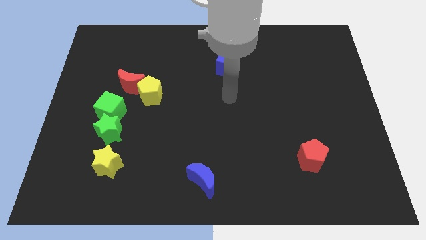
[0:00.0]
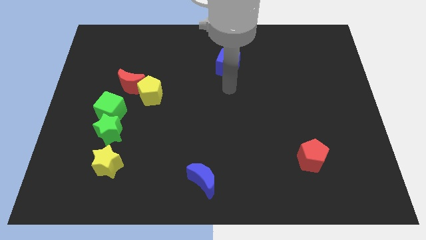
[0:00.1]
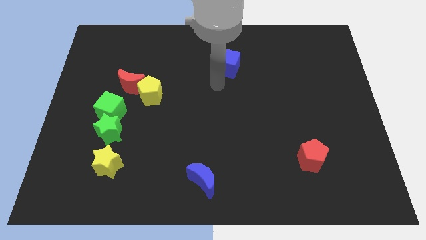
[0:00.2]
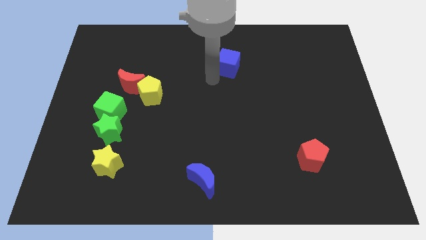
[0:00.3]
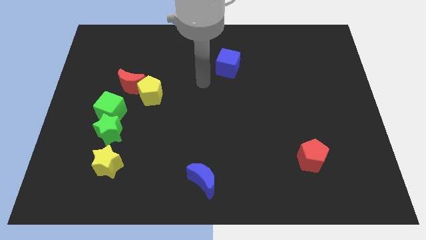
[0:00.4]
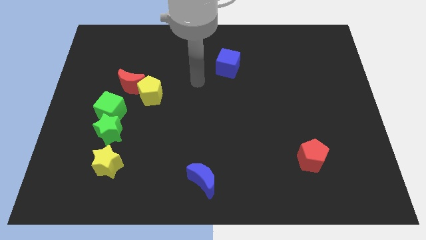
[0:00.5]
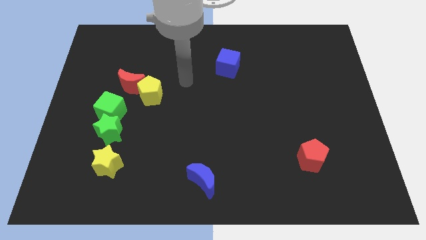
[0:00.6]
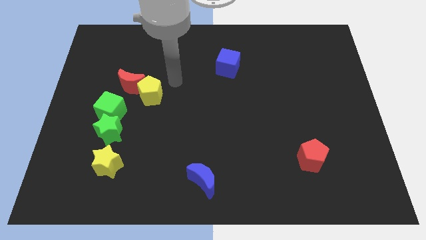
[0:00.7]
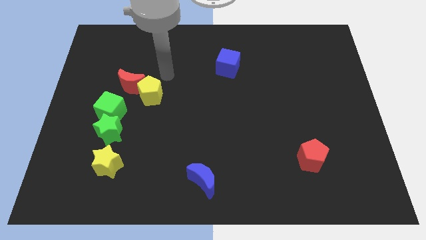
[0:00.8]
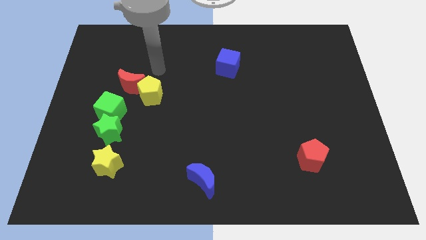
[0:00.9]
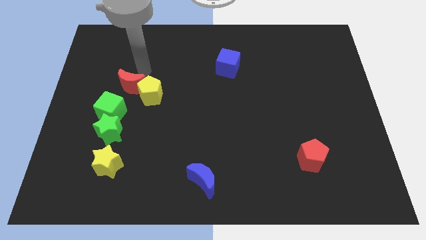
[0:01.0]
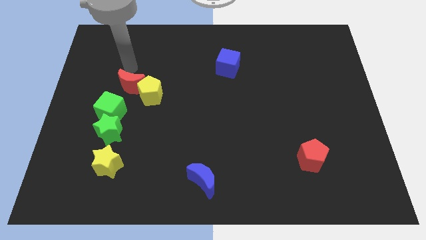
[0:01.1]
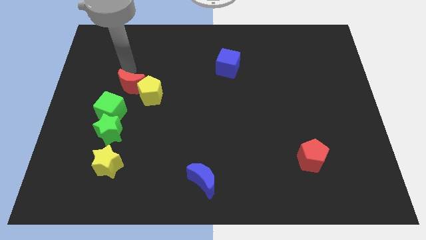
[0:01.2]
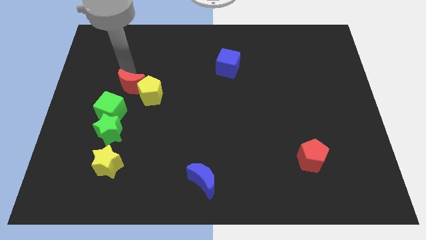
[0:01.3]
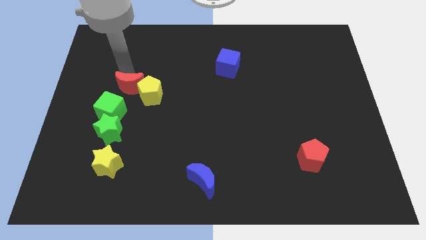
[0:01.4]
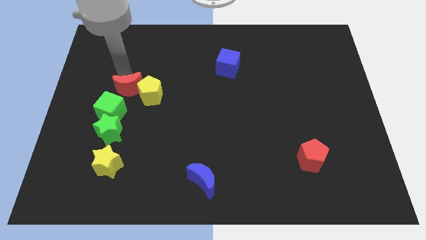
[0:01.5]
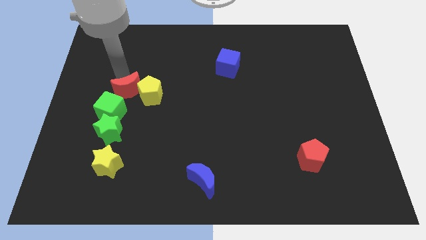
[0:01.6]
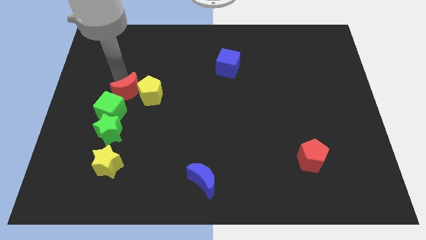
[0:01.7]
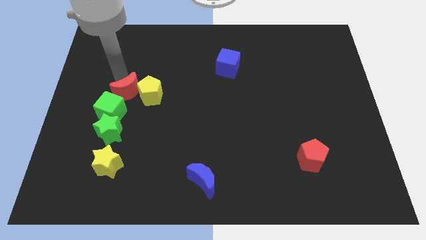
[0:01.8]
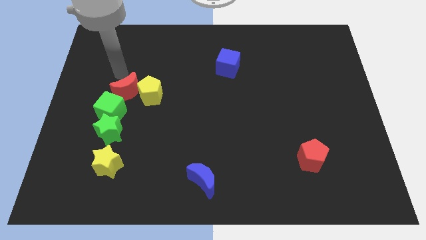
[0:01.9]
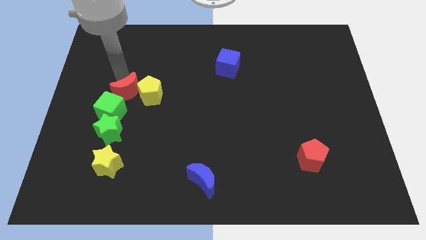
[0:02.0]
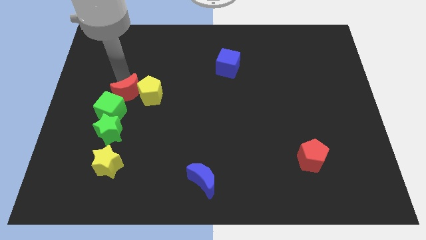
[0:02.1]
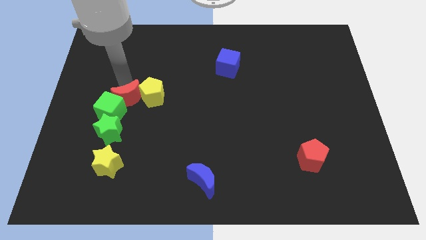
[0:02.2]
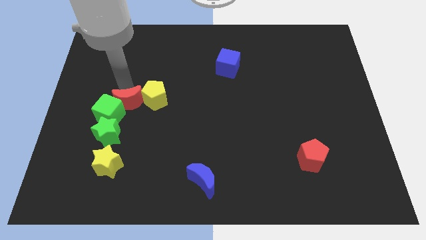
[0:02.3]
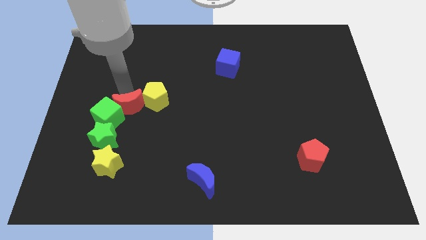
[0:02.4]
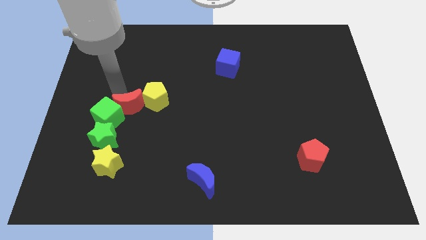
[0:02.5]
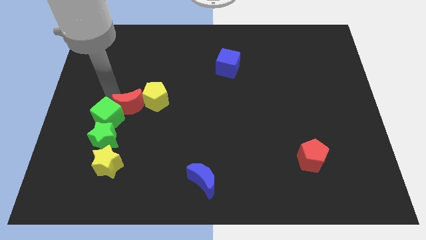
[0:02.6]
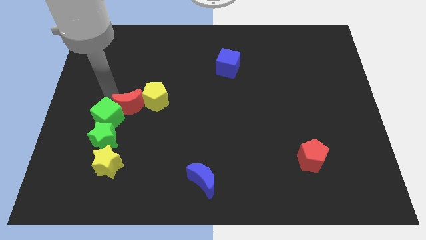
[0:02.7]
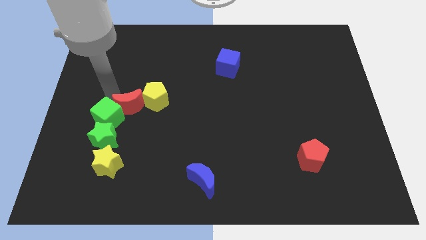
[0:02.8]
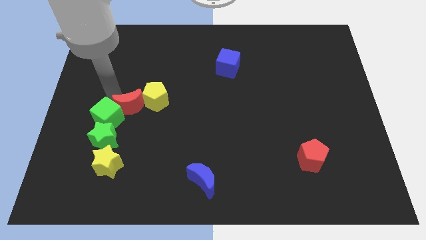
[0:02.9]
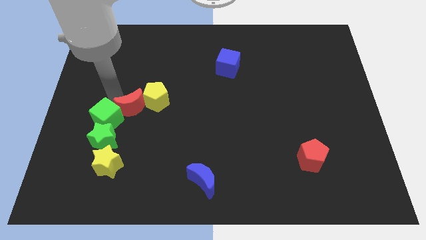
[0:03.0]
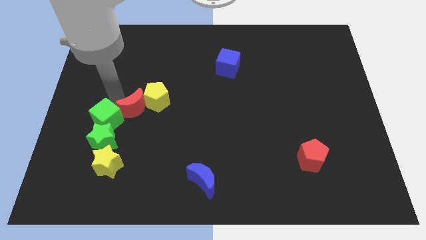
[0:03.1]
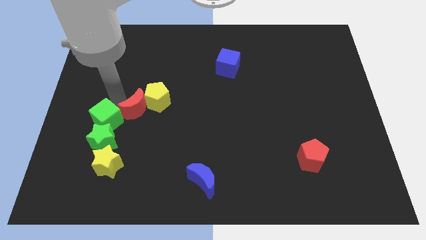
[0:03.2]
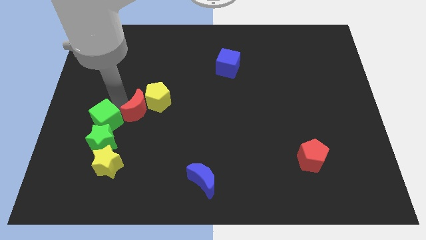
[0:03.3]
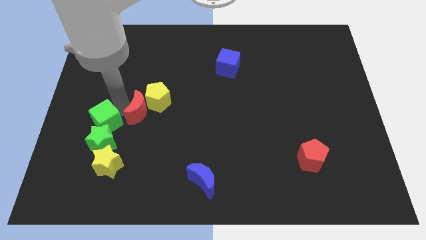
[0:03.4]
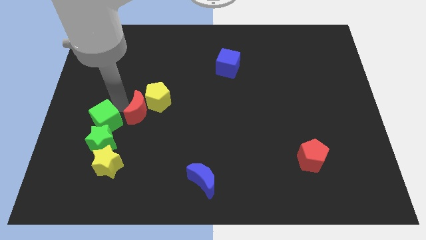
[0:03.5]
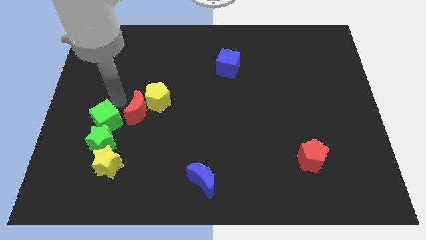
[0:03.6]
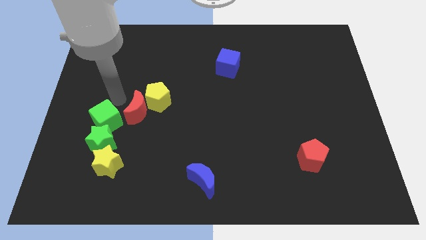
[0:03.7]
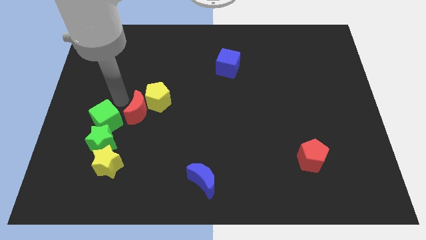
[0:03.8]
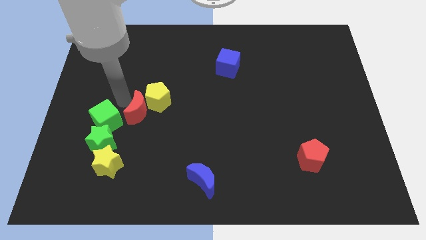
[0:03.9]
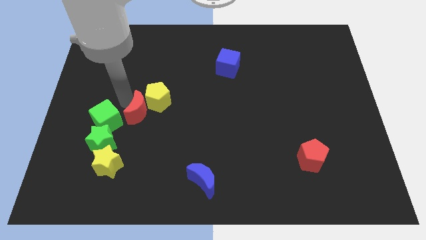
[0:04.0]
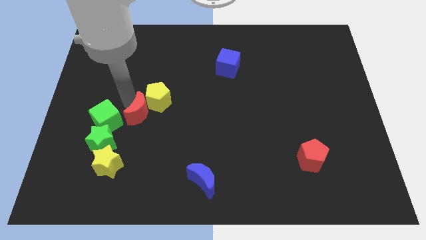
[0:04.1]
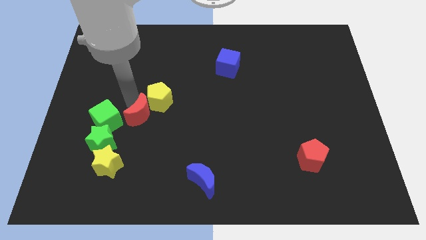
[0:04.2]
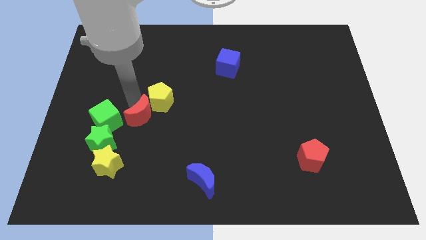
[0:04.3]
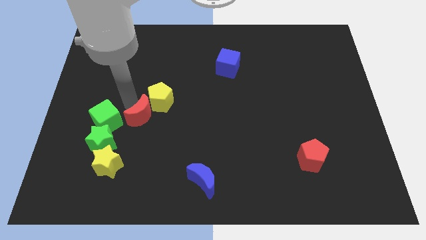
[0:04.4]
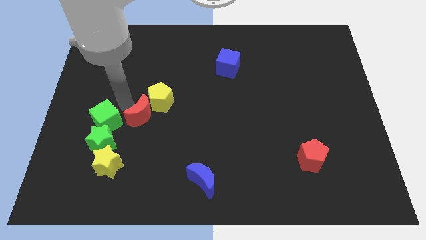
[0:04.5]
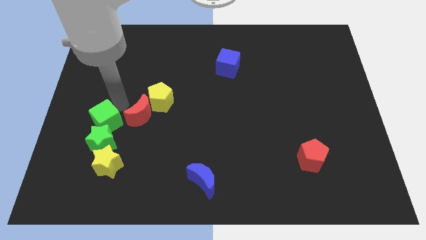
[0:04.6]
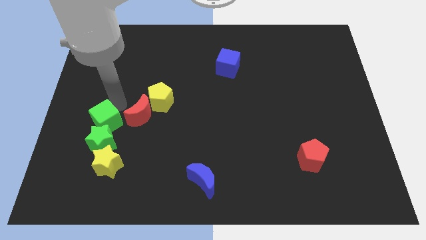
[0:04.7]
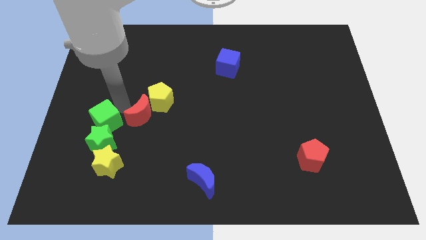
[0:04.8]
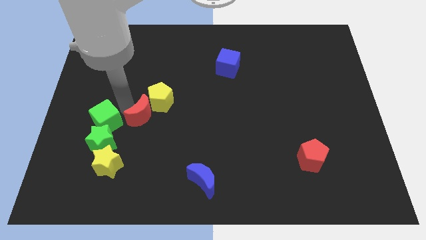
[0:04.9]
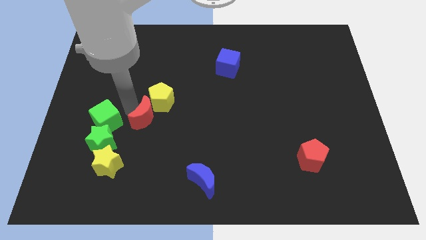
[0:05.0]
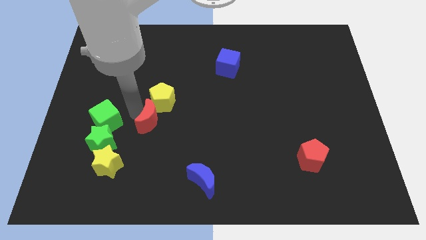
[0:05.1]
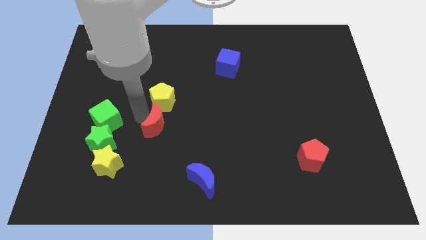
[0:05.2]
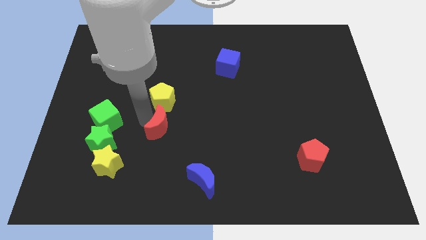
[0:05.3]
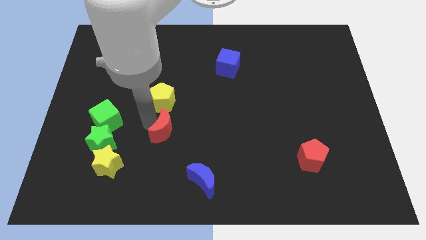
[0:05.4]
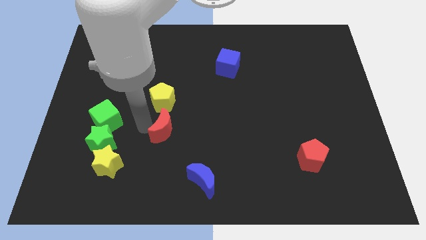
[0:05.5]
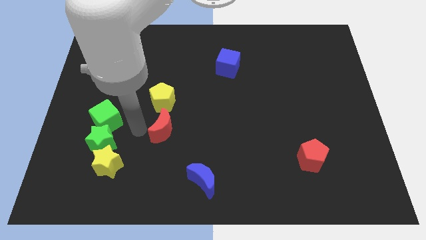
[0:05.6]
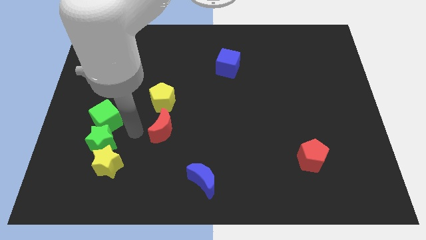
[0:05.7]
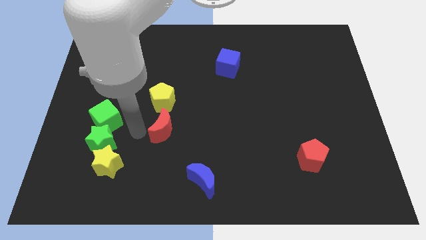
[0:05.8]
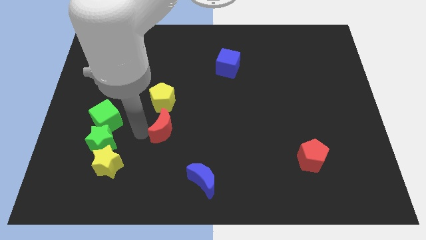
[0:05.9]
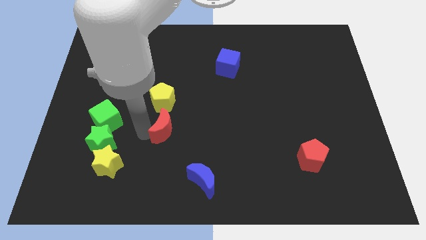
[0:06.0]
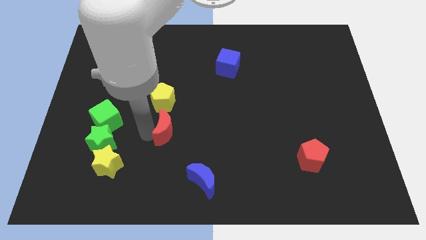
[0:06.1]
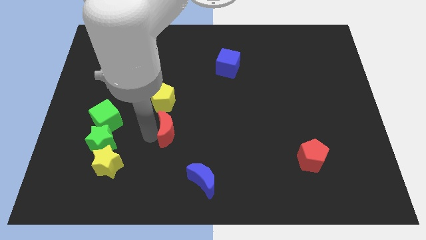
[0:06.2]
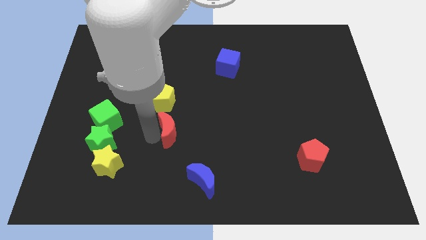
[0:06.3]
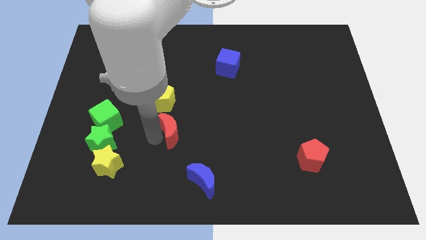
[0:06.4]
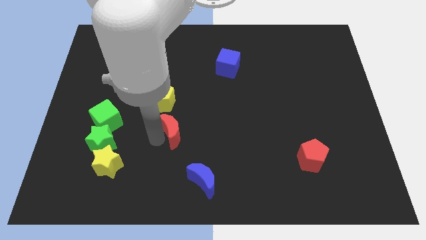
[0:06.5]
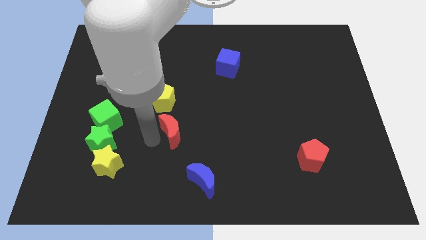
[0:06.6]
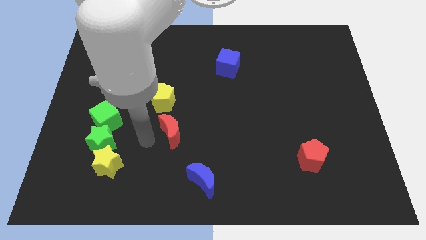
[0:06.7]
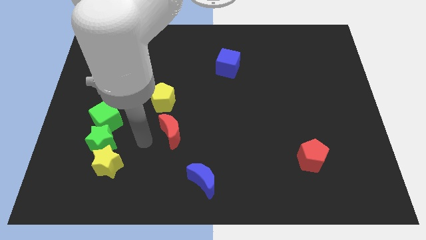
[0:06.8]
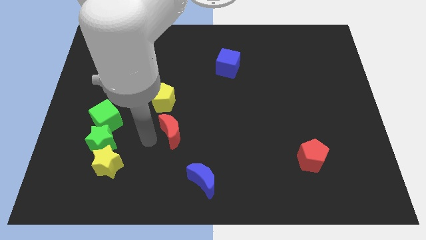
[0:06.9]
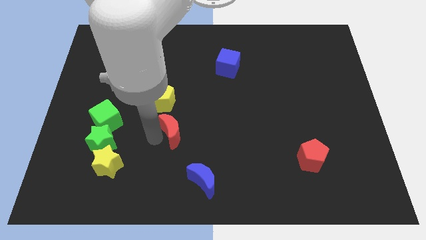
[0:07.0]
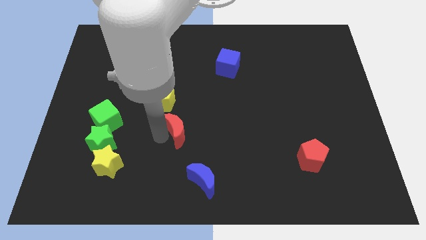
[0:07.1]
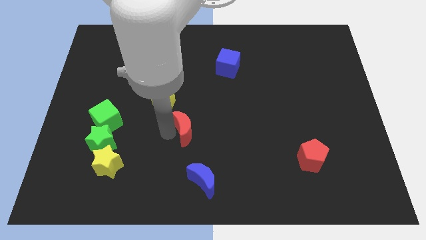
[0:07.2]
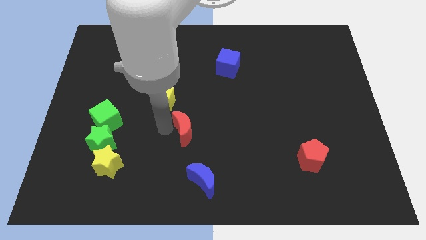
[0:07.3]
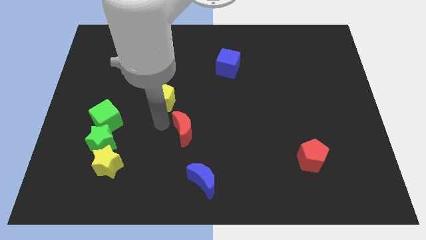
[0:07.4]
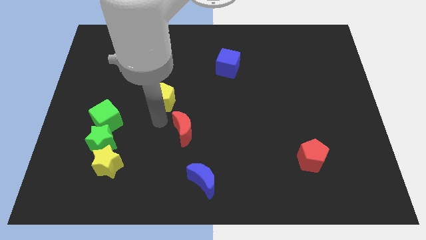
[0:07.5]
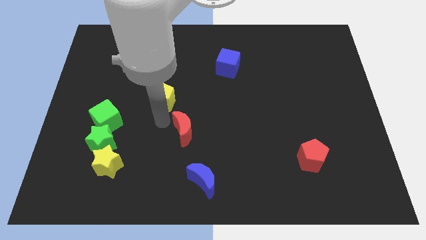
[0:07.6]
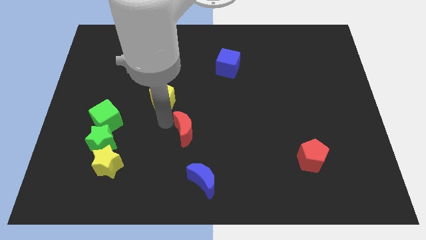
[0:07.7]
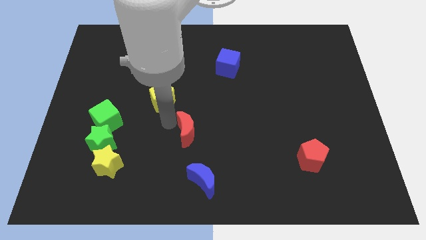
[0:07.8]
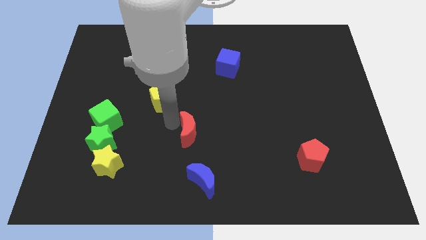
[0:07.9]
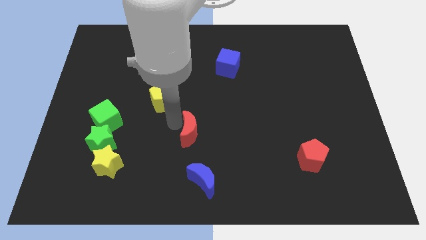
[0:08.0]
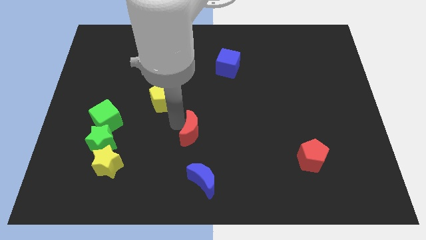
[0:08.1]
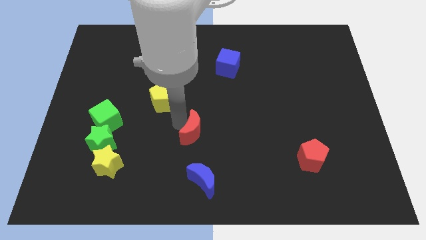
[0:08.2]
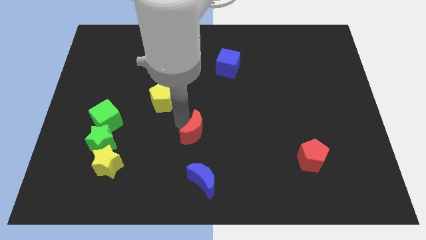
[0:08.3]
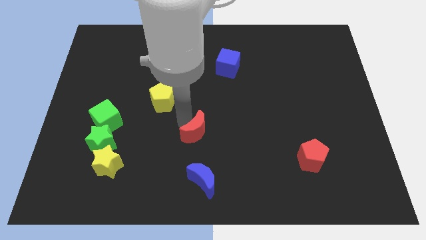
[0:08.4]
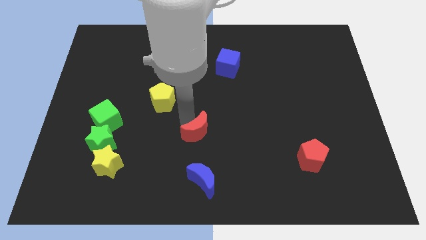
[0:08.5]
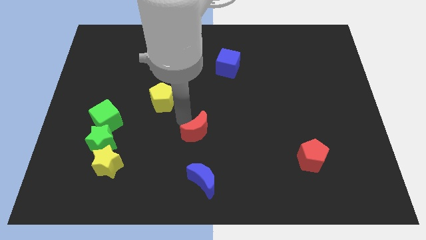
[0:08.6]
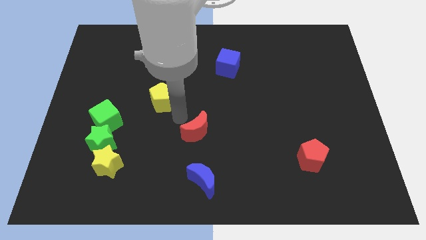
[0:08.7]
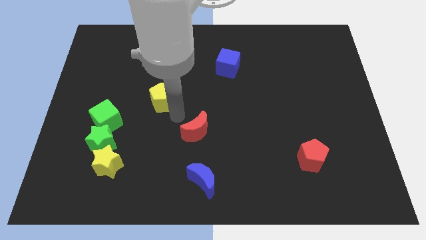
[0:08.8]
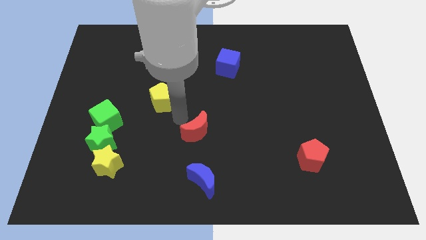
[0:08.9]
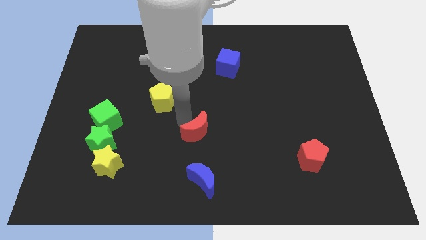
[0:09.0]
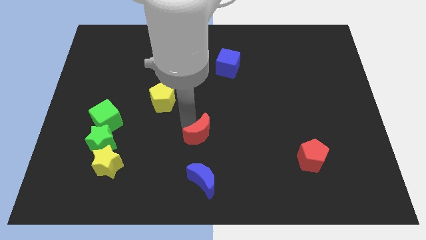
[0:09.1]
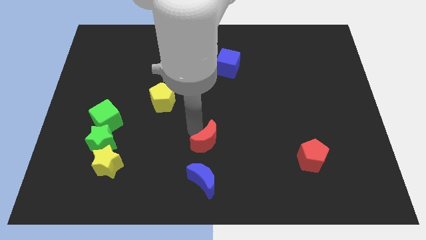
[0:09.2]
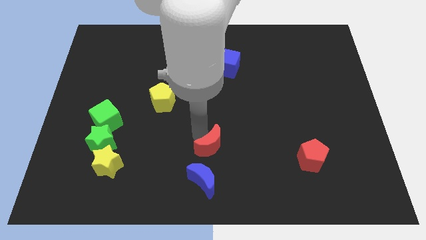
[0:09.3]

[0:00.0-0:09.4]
move the red moon to the top right of the blue moon
